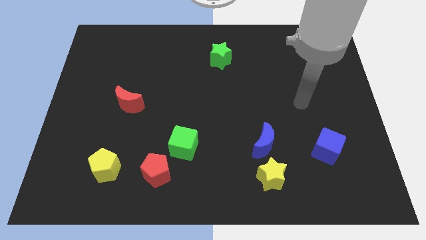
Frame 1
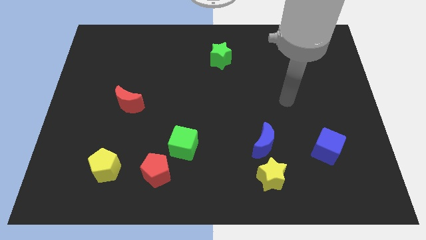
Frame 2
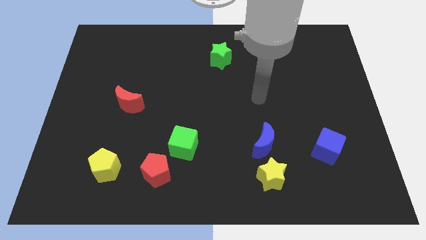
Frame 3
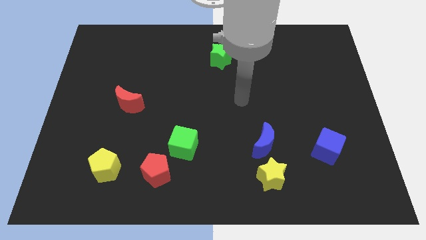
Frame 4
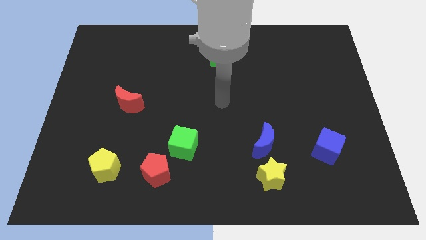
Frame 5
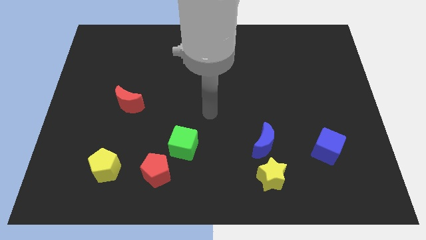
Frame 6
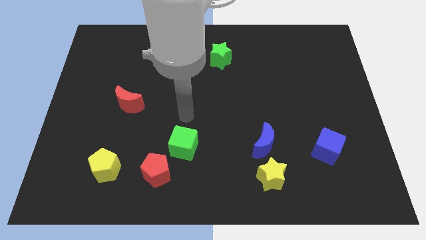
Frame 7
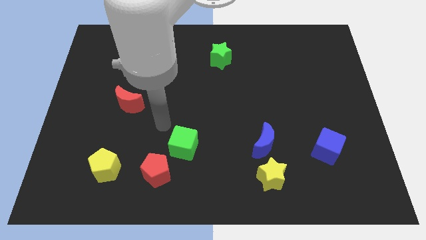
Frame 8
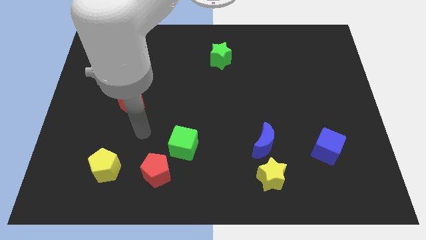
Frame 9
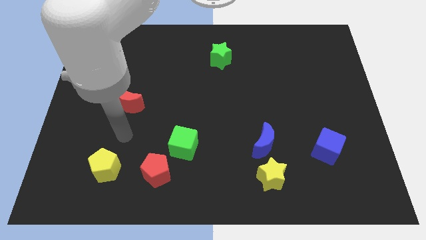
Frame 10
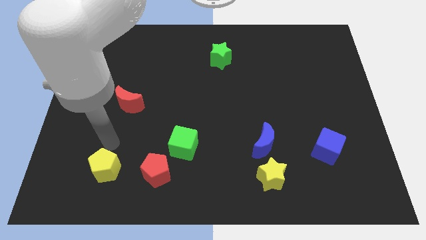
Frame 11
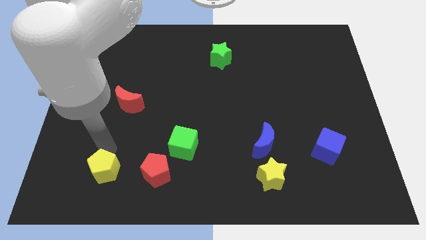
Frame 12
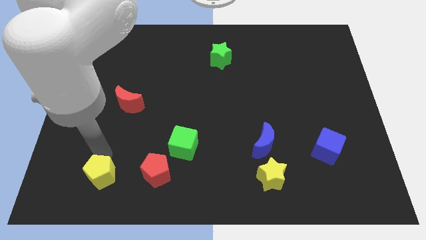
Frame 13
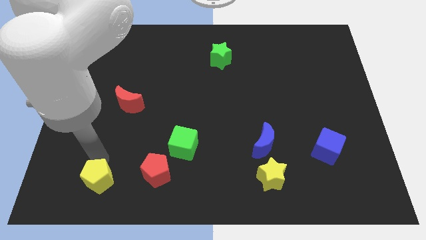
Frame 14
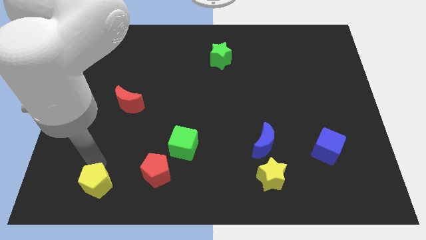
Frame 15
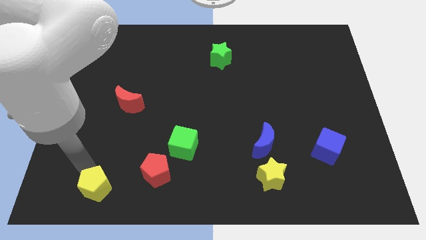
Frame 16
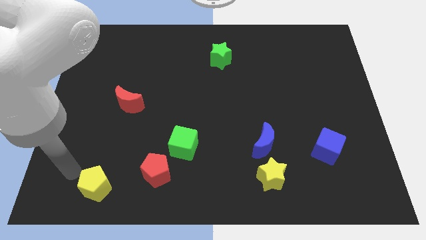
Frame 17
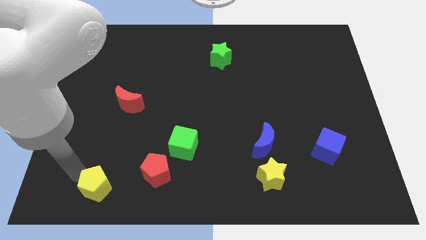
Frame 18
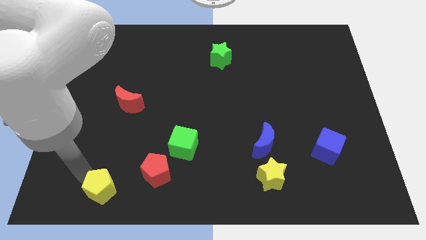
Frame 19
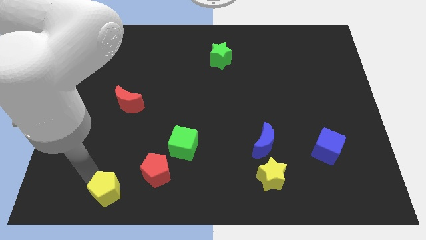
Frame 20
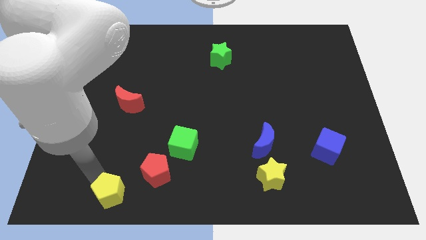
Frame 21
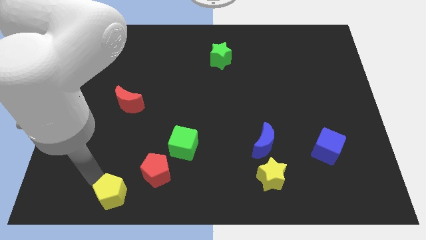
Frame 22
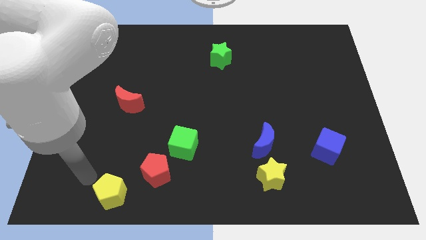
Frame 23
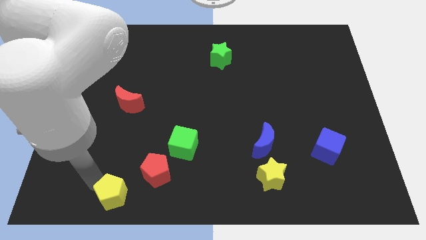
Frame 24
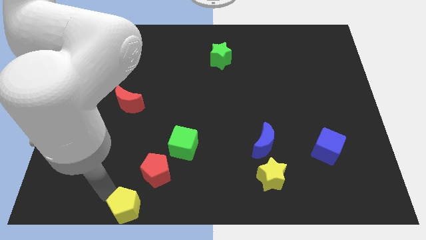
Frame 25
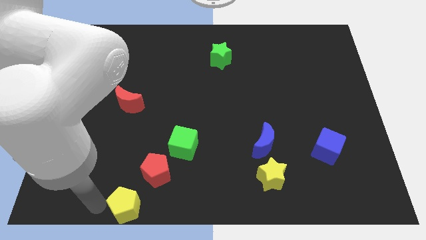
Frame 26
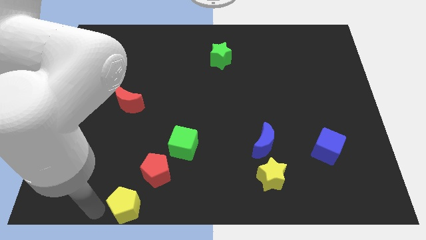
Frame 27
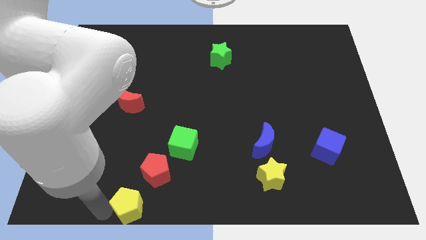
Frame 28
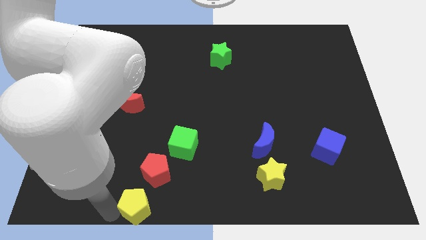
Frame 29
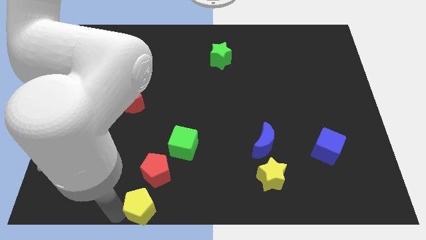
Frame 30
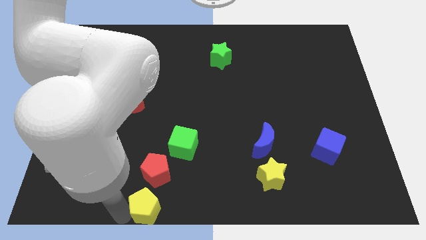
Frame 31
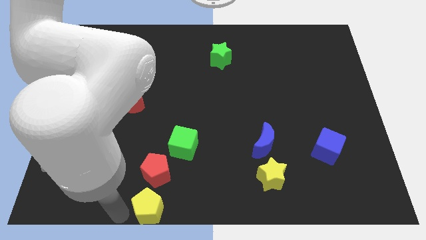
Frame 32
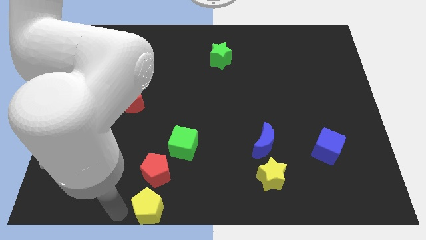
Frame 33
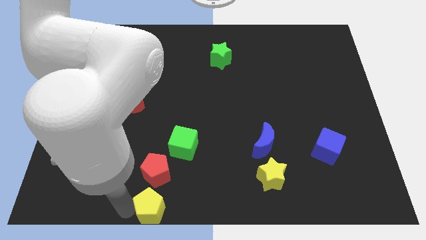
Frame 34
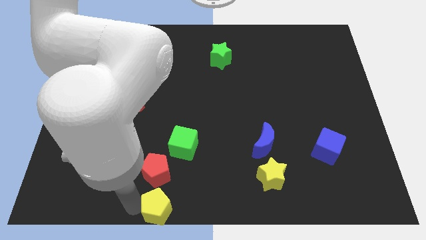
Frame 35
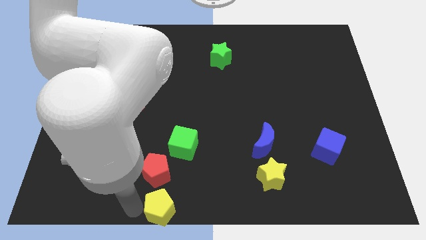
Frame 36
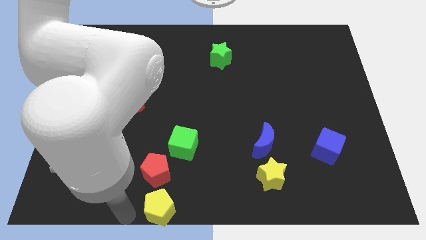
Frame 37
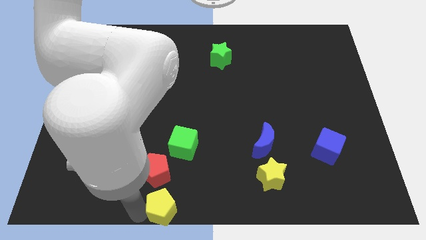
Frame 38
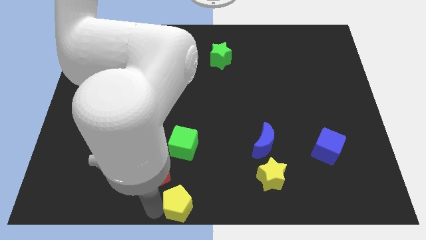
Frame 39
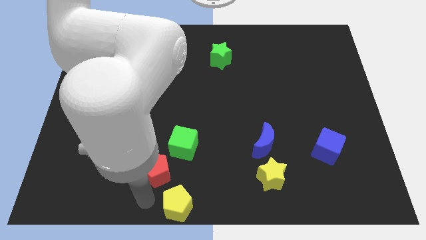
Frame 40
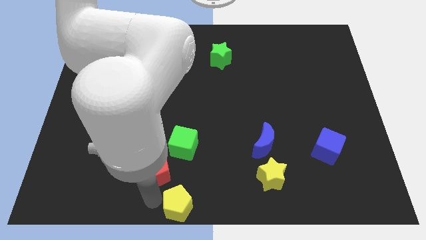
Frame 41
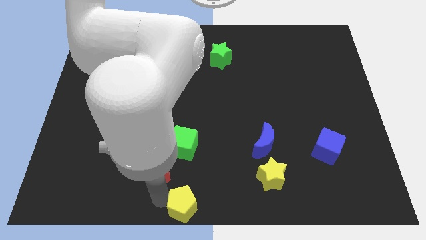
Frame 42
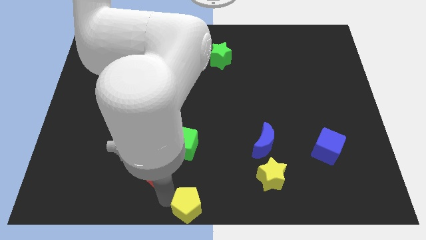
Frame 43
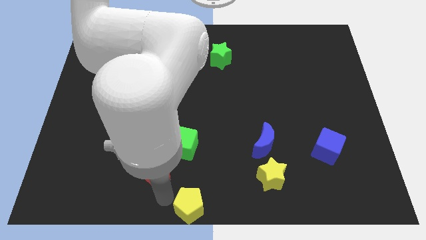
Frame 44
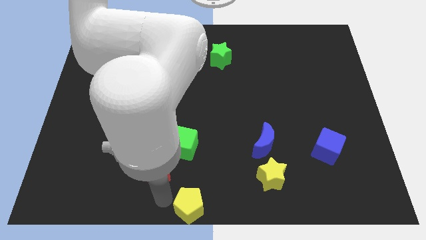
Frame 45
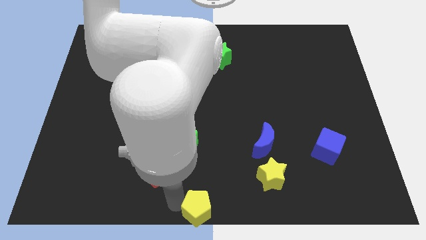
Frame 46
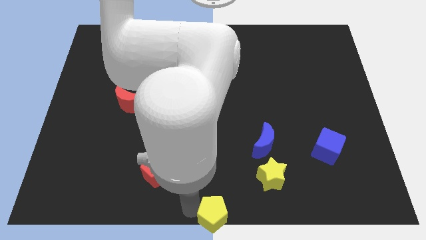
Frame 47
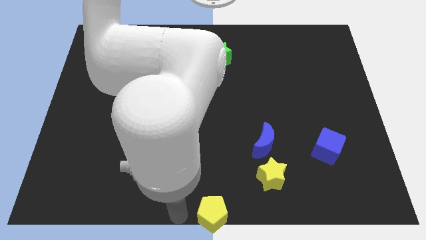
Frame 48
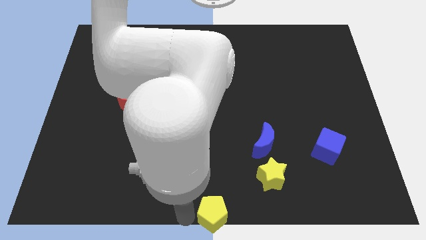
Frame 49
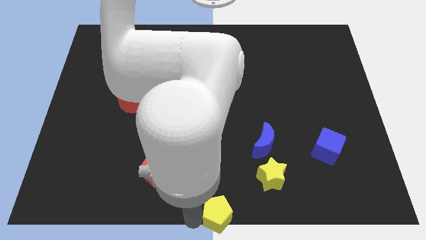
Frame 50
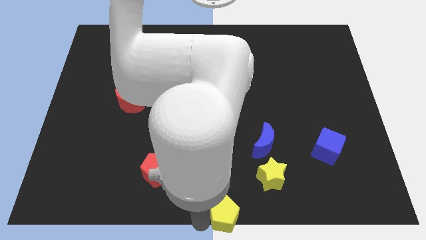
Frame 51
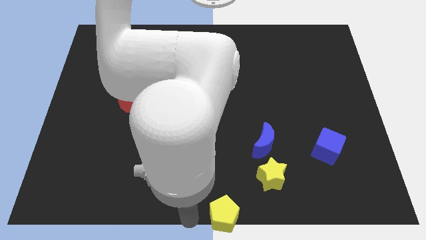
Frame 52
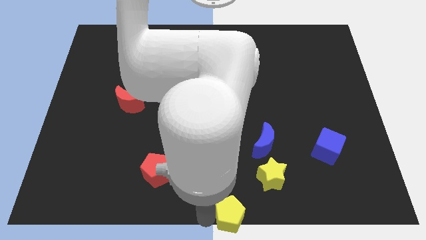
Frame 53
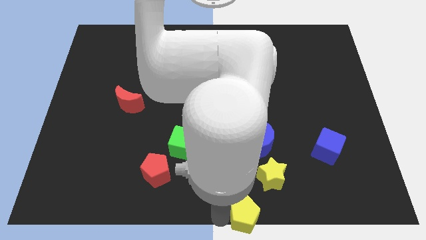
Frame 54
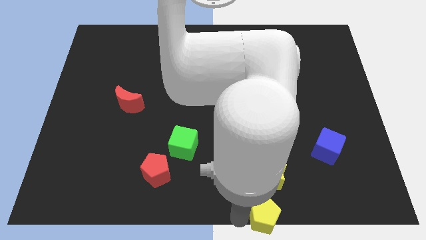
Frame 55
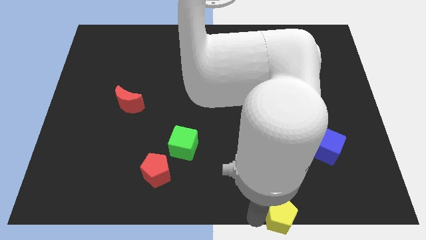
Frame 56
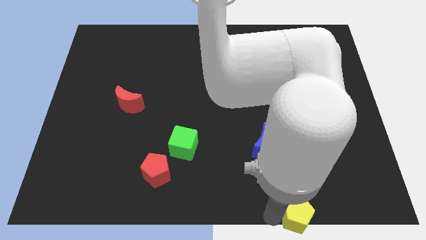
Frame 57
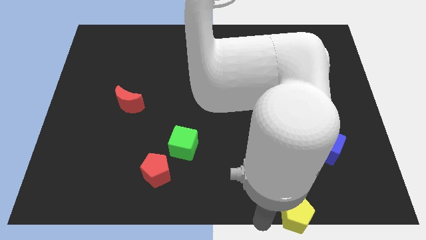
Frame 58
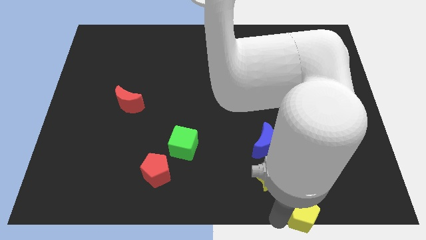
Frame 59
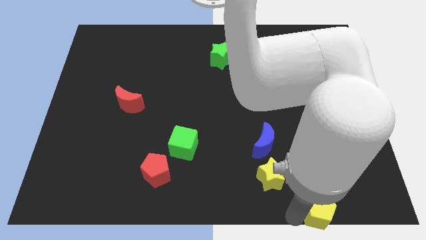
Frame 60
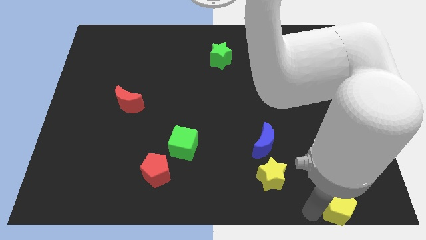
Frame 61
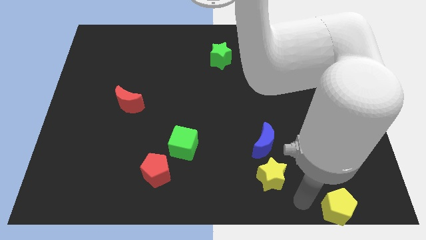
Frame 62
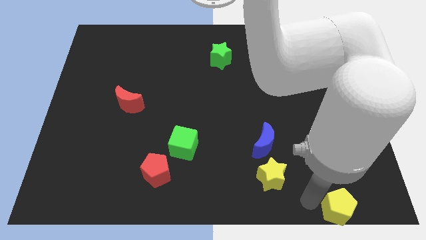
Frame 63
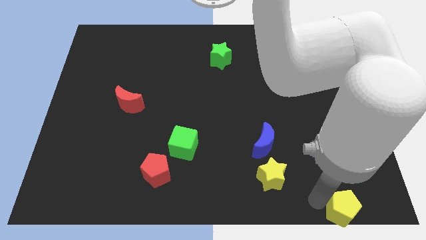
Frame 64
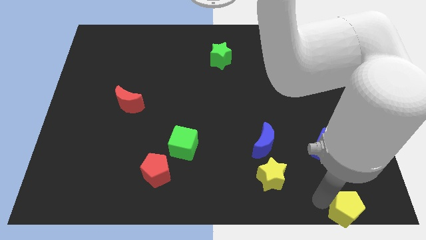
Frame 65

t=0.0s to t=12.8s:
push the yellow pentagon to the bottom right corner

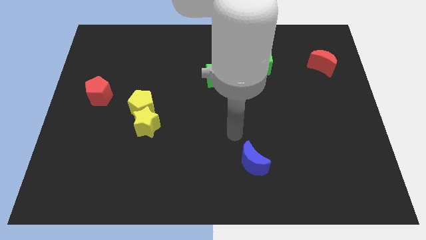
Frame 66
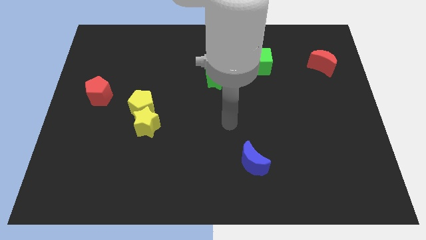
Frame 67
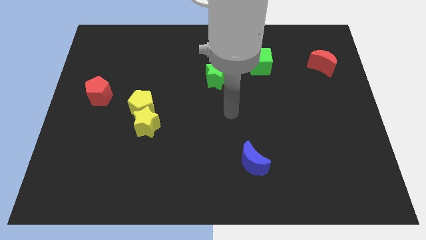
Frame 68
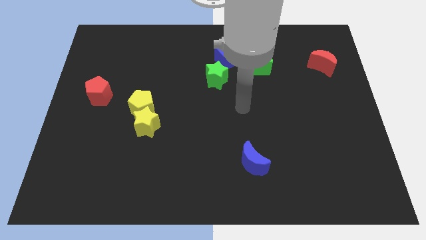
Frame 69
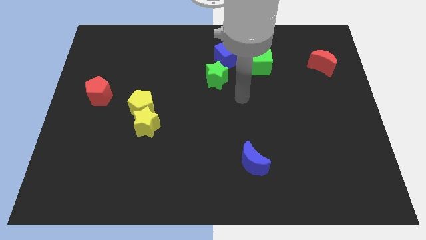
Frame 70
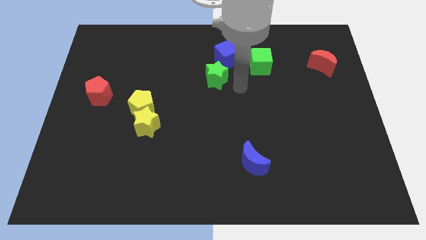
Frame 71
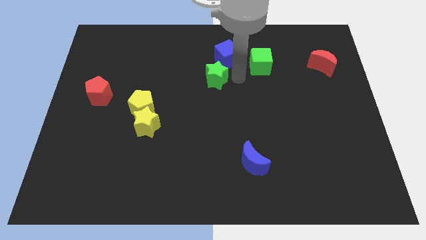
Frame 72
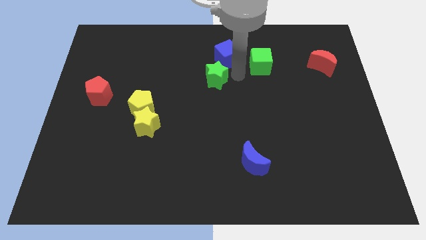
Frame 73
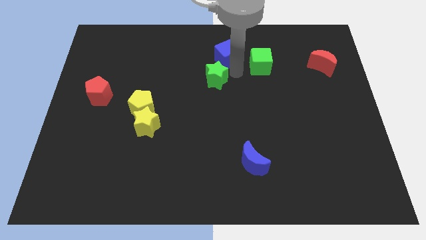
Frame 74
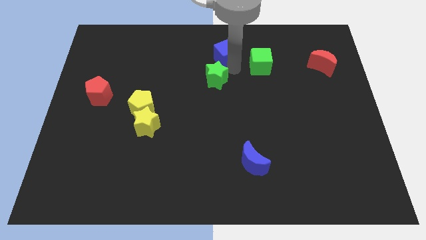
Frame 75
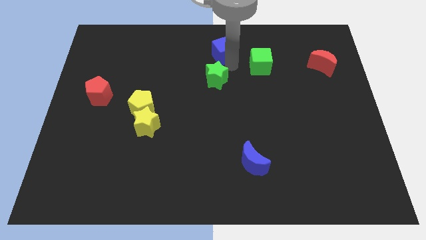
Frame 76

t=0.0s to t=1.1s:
push the blue cube to the top
